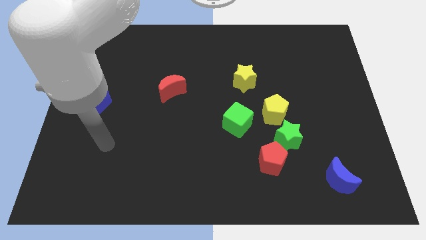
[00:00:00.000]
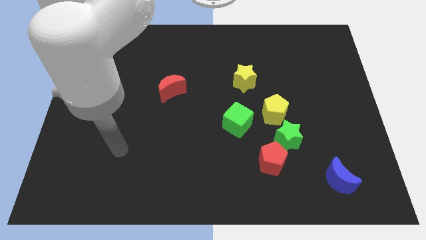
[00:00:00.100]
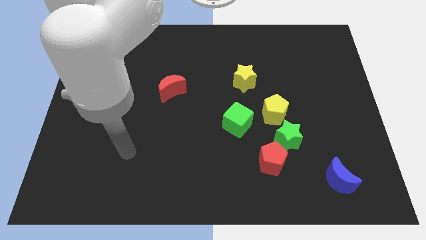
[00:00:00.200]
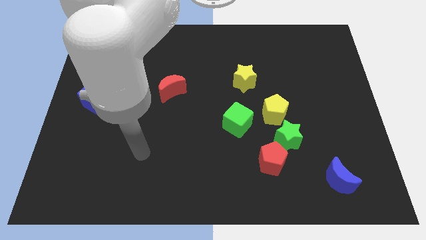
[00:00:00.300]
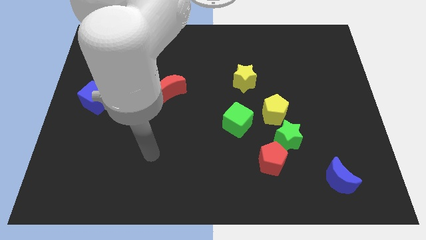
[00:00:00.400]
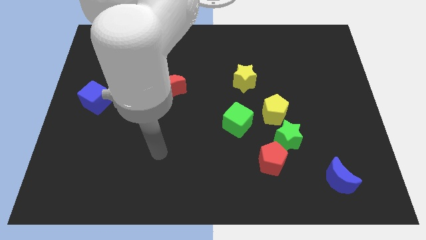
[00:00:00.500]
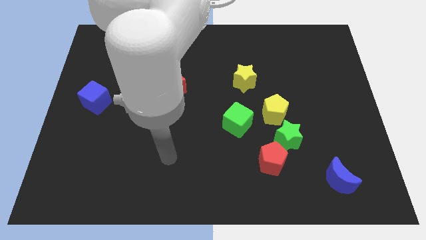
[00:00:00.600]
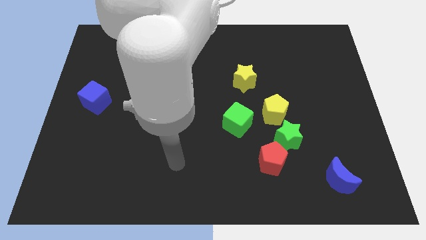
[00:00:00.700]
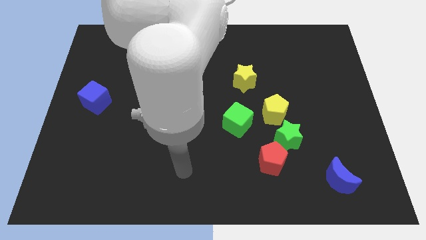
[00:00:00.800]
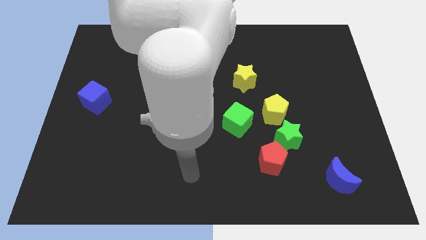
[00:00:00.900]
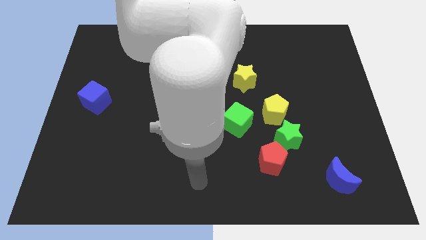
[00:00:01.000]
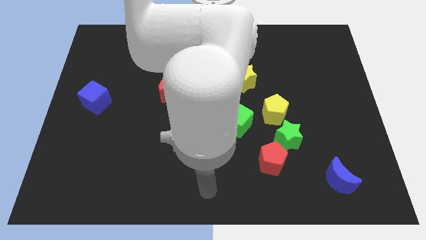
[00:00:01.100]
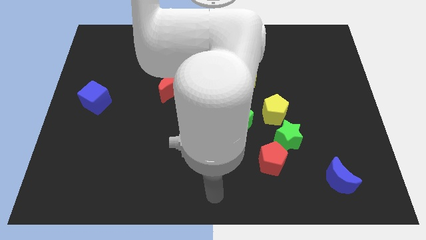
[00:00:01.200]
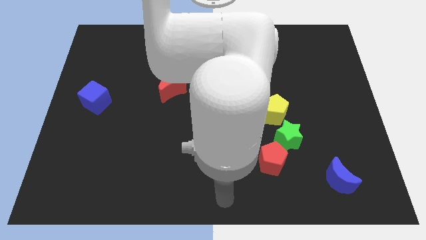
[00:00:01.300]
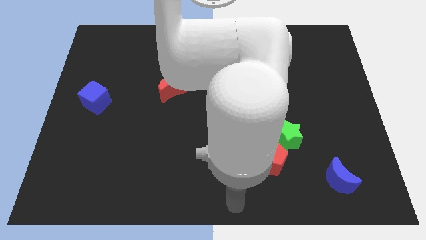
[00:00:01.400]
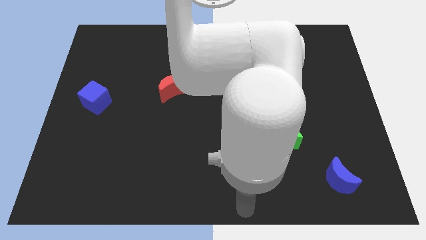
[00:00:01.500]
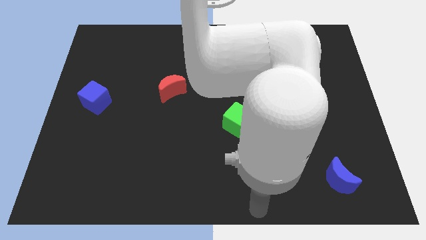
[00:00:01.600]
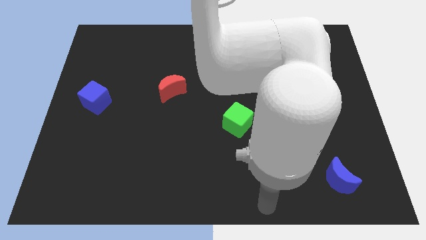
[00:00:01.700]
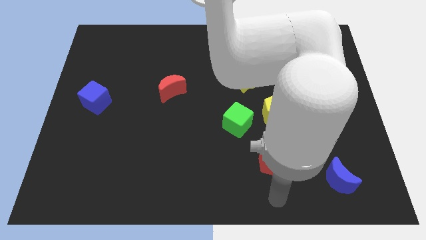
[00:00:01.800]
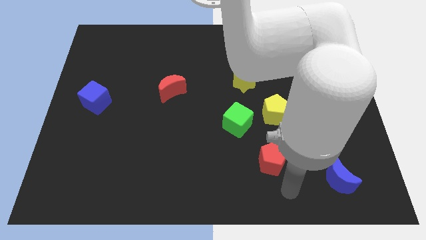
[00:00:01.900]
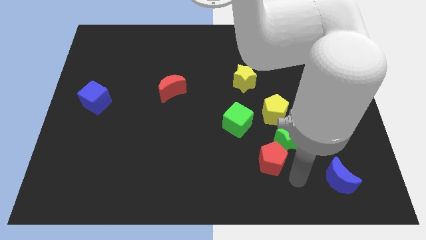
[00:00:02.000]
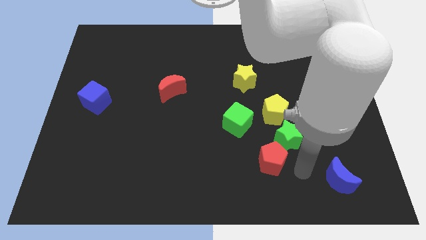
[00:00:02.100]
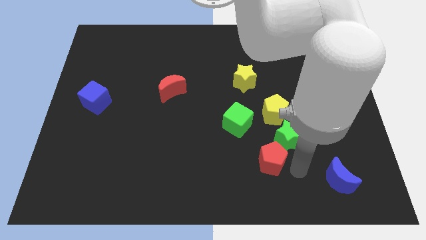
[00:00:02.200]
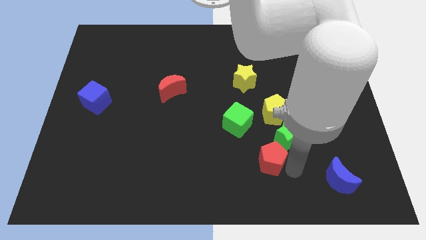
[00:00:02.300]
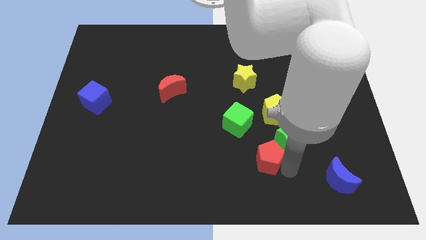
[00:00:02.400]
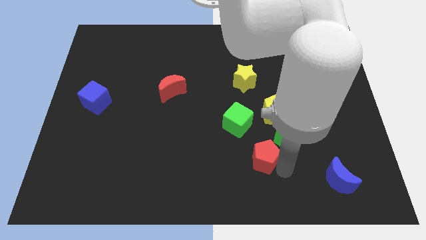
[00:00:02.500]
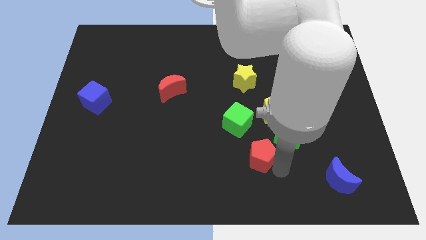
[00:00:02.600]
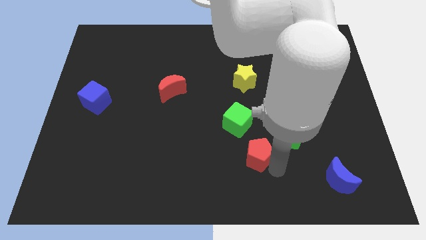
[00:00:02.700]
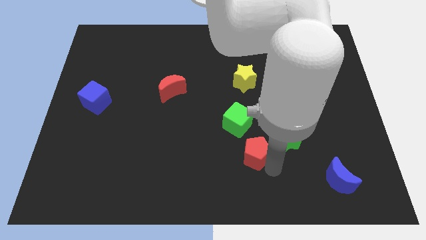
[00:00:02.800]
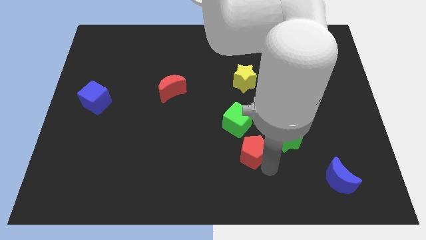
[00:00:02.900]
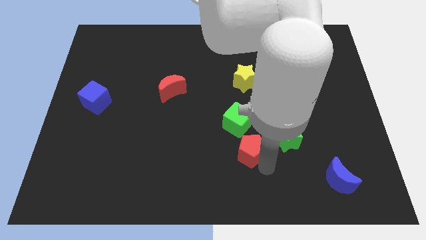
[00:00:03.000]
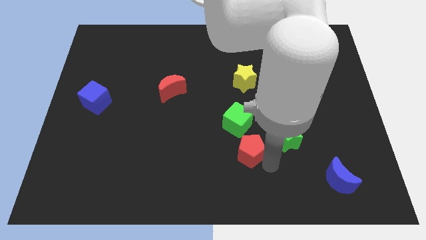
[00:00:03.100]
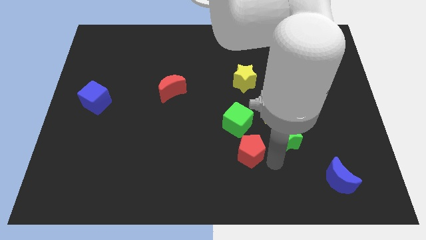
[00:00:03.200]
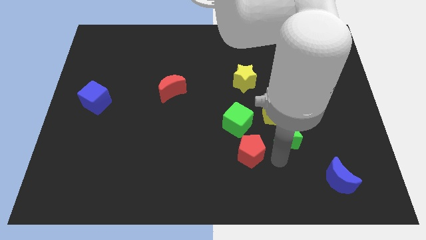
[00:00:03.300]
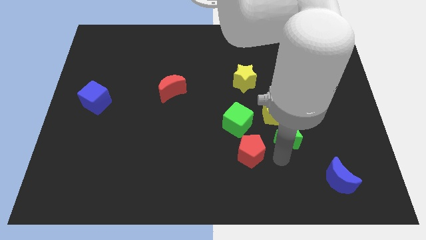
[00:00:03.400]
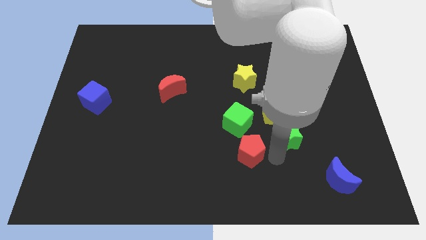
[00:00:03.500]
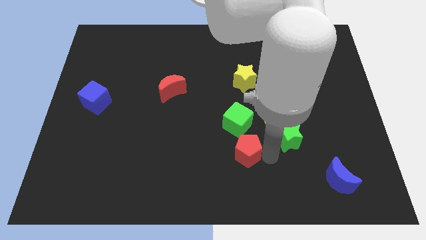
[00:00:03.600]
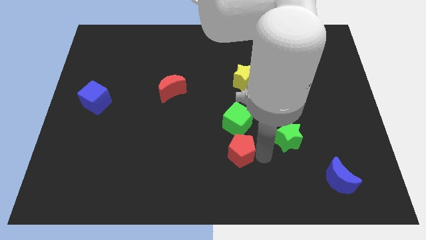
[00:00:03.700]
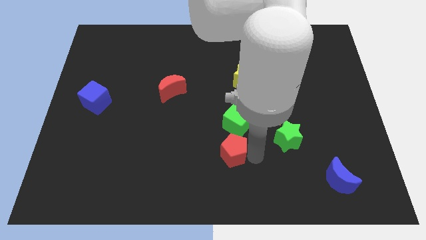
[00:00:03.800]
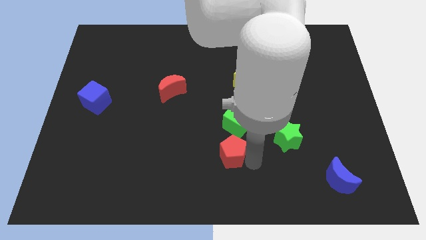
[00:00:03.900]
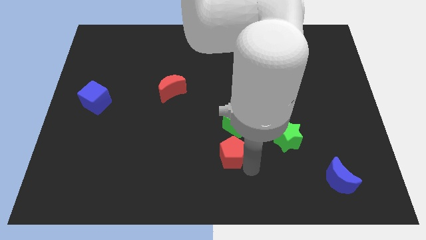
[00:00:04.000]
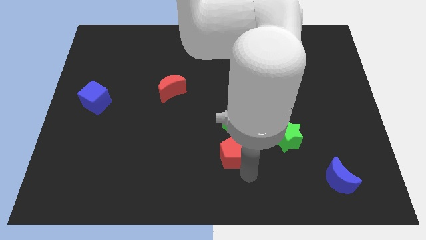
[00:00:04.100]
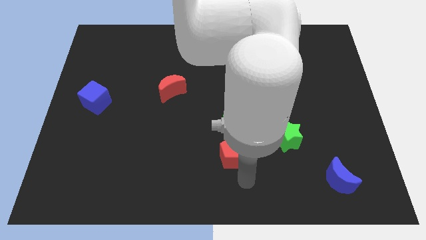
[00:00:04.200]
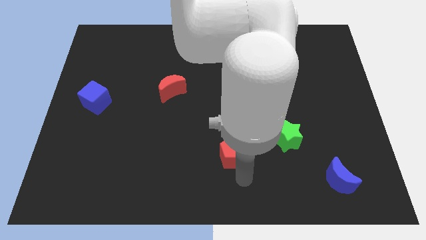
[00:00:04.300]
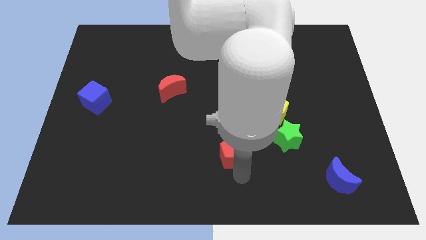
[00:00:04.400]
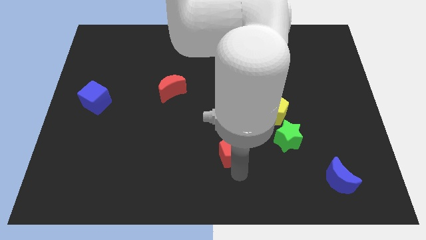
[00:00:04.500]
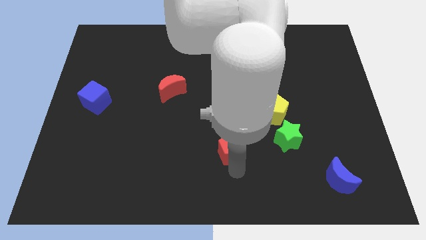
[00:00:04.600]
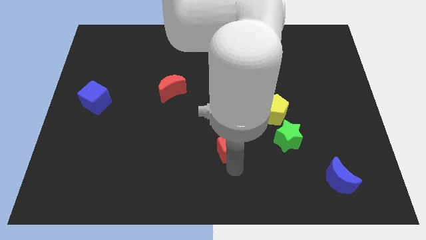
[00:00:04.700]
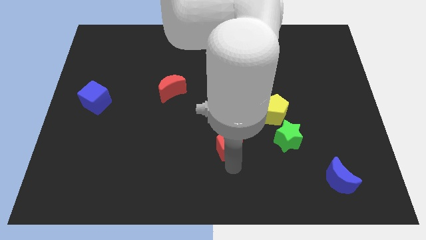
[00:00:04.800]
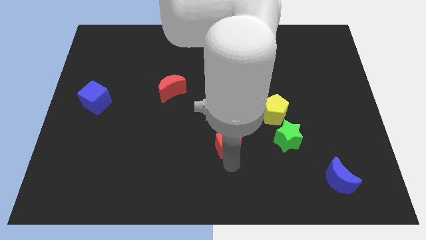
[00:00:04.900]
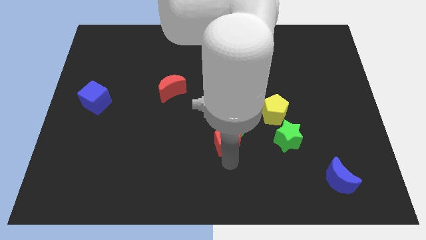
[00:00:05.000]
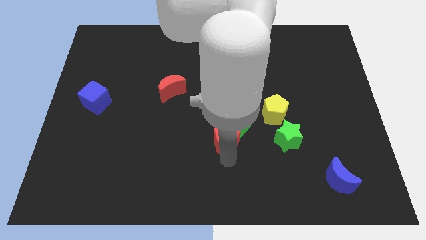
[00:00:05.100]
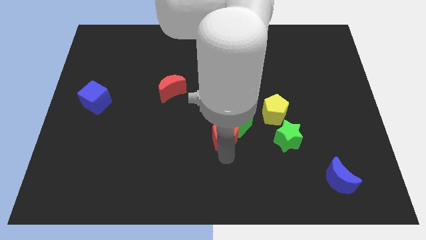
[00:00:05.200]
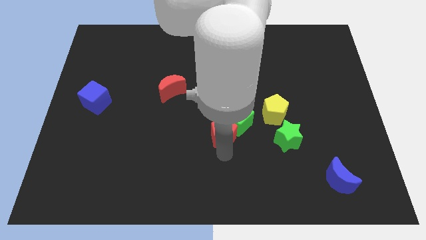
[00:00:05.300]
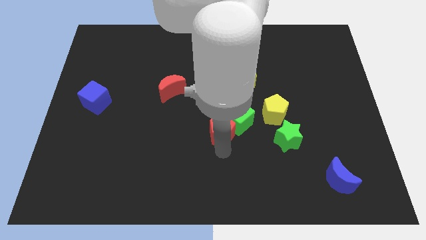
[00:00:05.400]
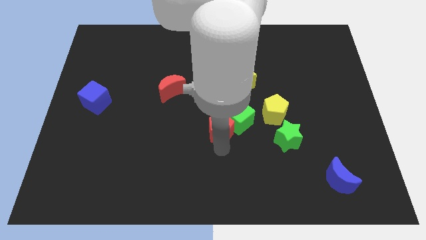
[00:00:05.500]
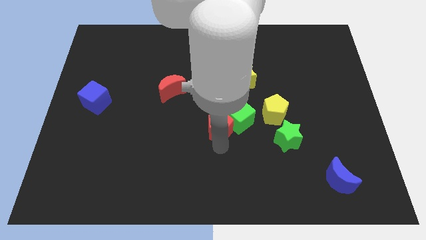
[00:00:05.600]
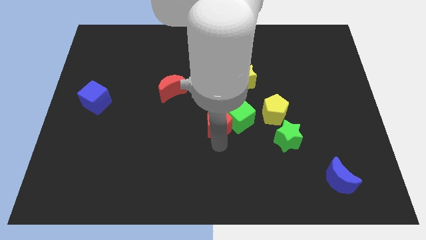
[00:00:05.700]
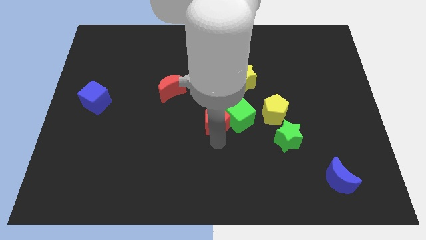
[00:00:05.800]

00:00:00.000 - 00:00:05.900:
slide the red pentagon to the top left side of the green cube

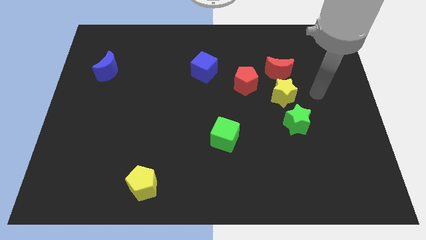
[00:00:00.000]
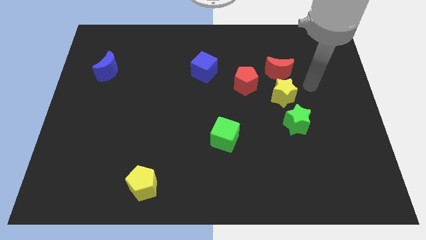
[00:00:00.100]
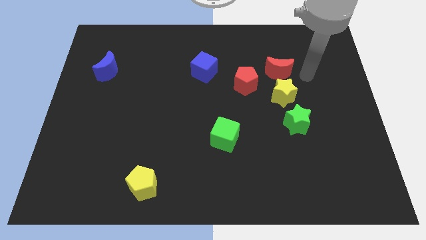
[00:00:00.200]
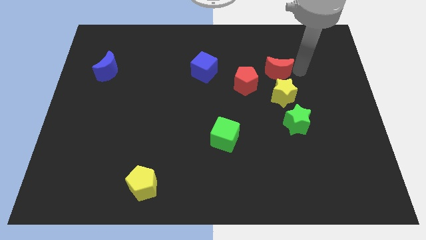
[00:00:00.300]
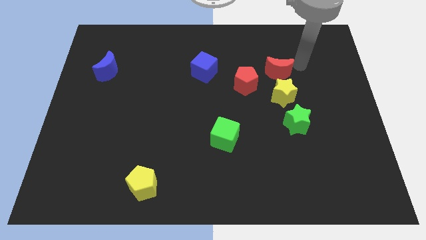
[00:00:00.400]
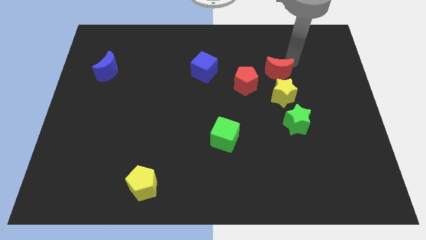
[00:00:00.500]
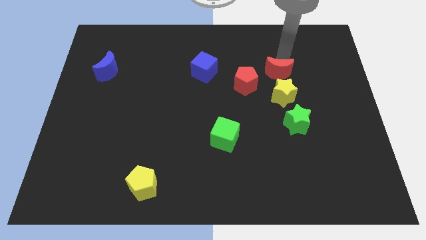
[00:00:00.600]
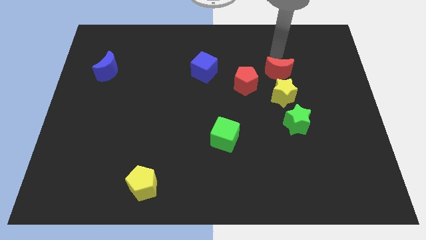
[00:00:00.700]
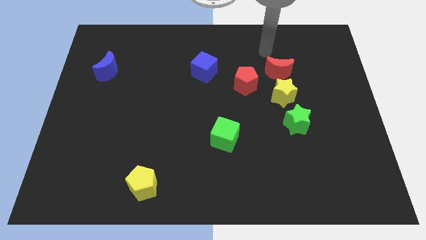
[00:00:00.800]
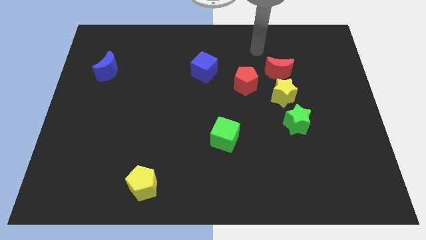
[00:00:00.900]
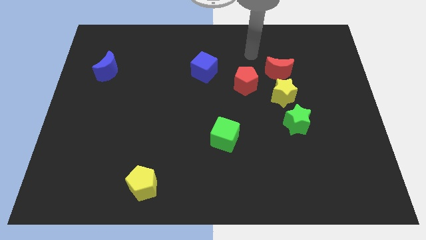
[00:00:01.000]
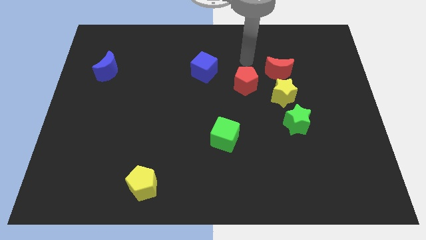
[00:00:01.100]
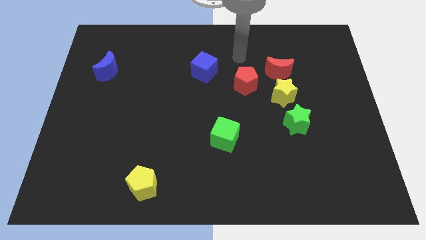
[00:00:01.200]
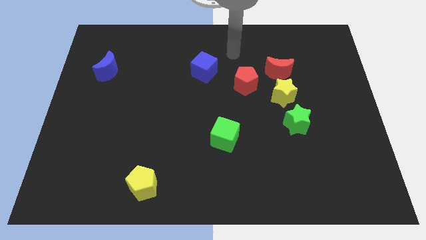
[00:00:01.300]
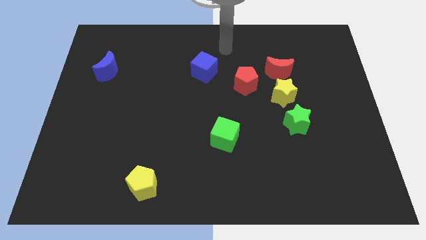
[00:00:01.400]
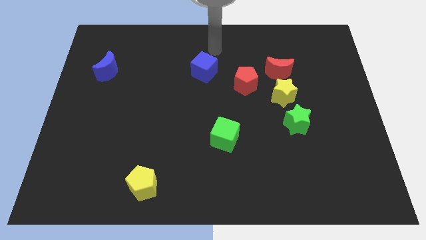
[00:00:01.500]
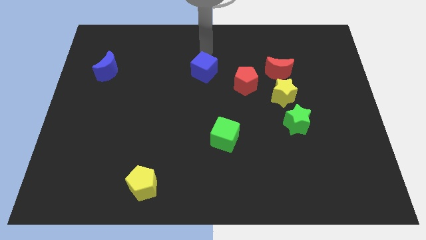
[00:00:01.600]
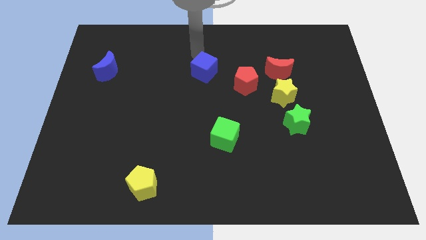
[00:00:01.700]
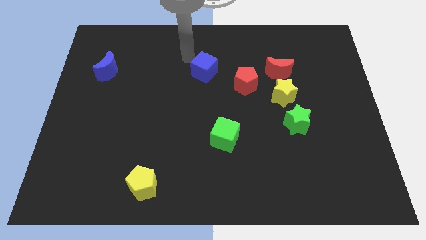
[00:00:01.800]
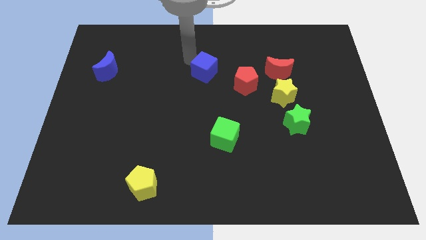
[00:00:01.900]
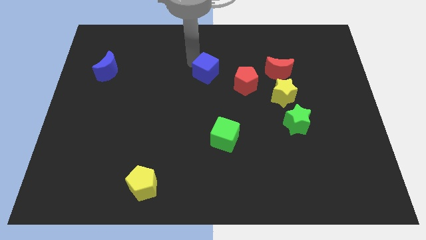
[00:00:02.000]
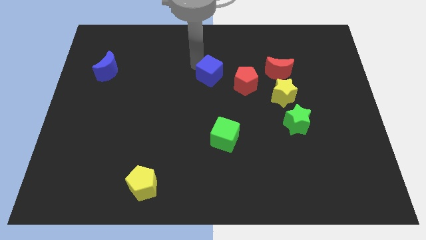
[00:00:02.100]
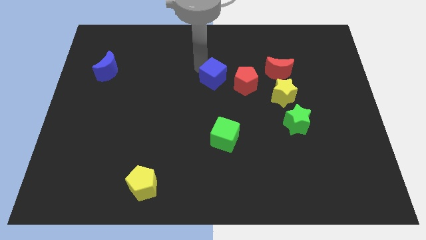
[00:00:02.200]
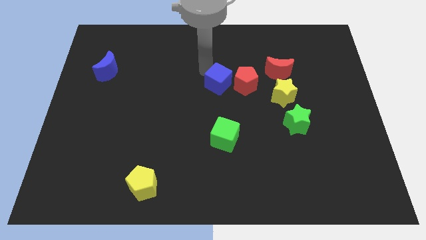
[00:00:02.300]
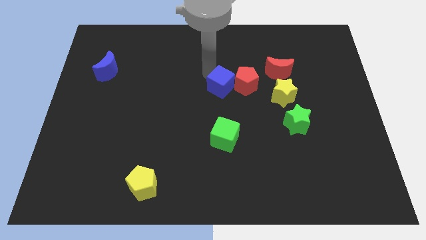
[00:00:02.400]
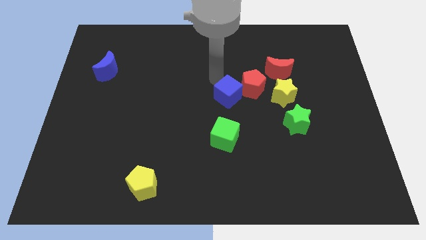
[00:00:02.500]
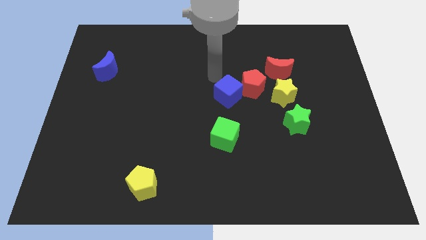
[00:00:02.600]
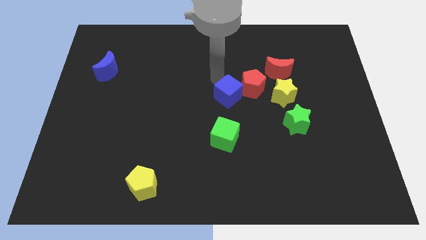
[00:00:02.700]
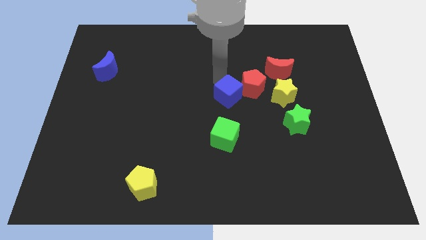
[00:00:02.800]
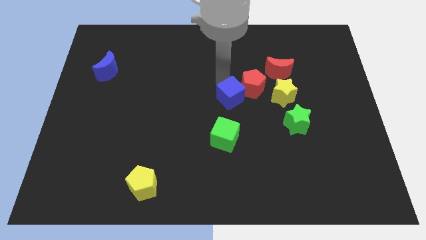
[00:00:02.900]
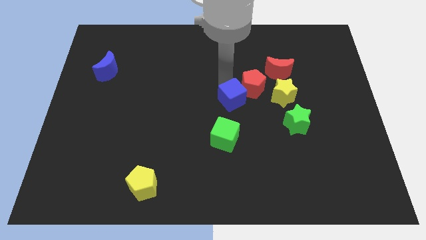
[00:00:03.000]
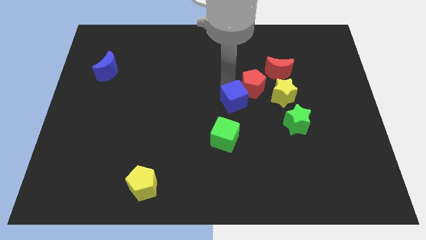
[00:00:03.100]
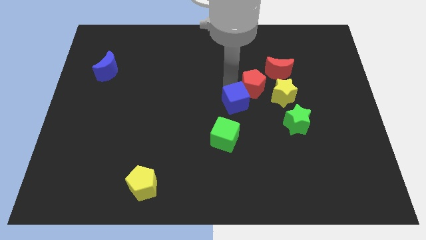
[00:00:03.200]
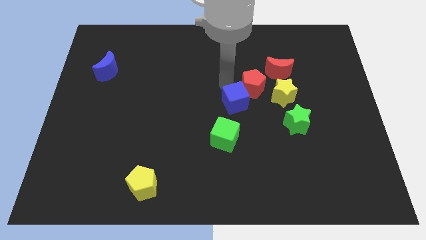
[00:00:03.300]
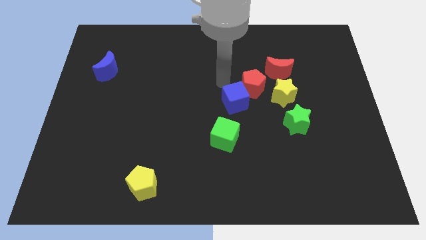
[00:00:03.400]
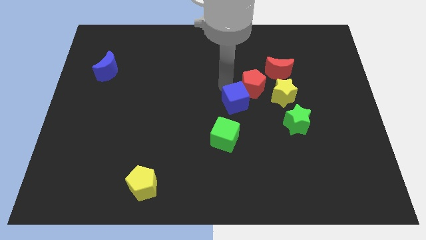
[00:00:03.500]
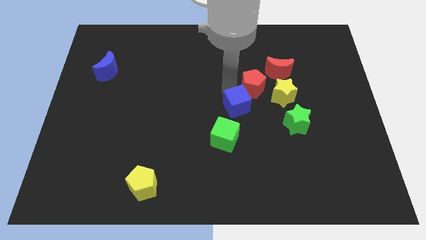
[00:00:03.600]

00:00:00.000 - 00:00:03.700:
move the blue cube diagonally up and to the right of the green cube
